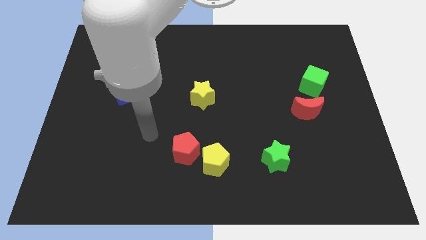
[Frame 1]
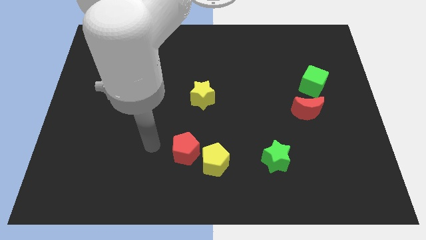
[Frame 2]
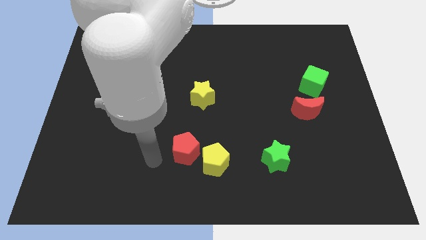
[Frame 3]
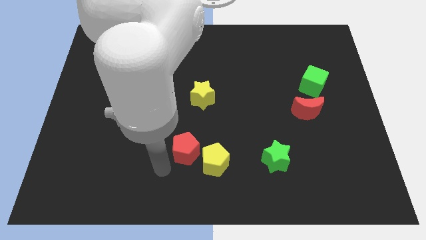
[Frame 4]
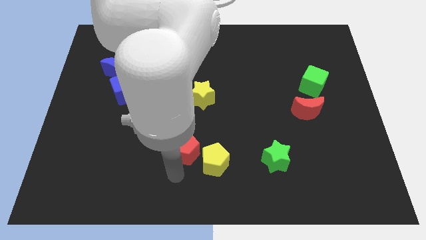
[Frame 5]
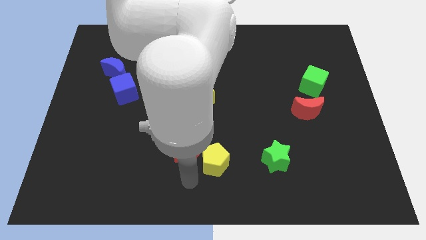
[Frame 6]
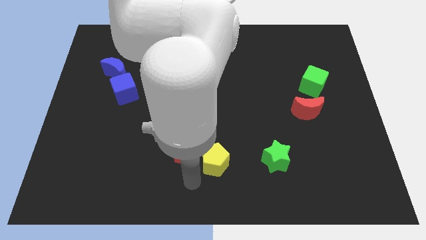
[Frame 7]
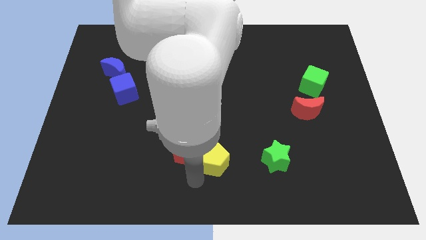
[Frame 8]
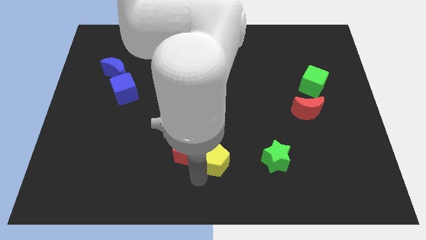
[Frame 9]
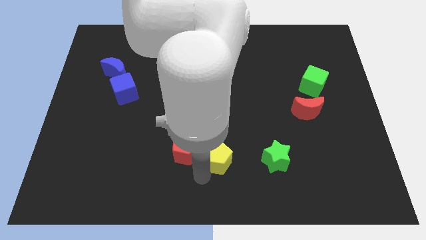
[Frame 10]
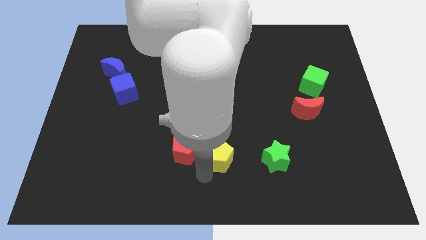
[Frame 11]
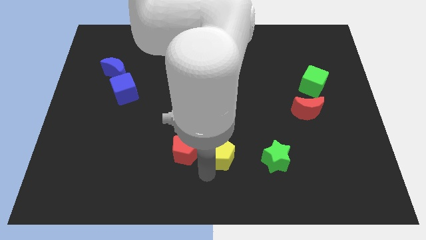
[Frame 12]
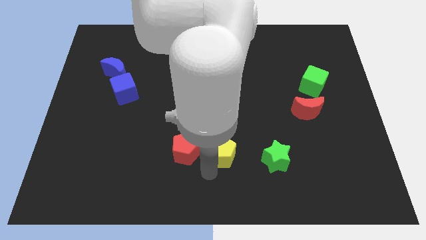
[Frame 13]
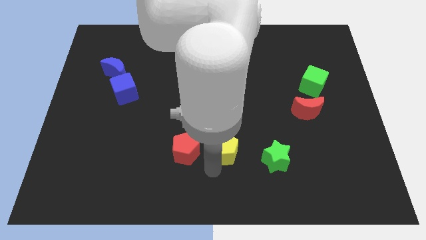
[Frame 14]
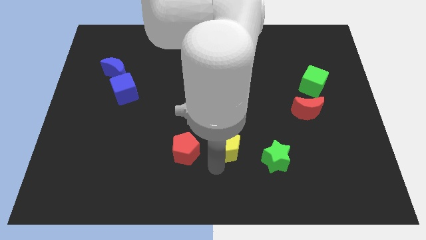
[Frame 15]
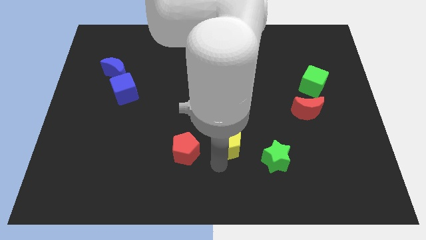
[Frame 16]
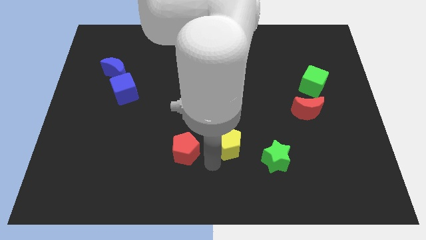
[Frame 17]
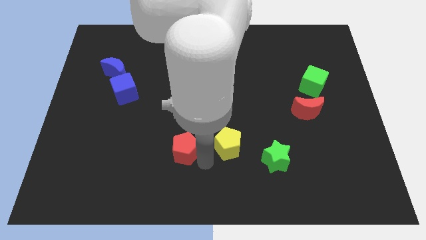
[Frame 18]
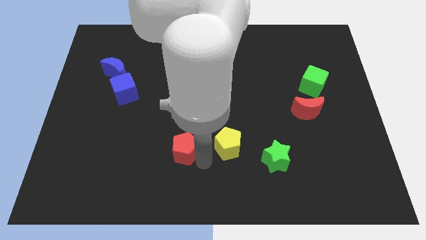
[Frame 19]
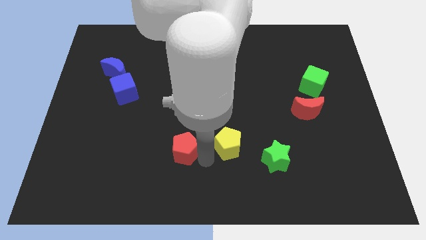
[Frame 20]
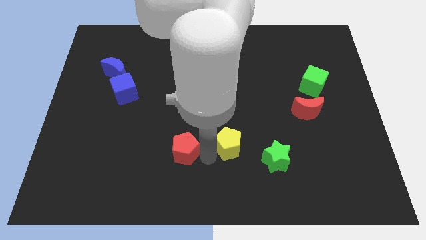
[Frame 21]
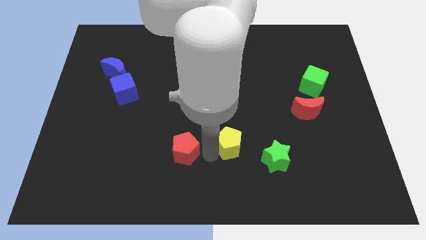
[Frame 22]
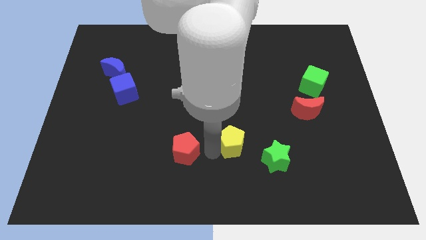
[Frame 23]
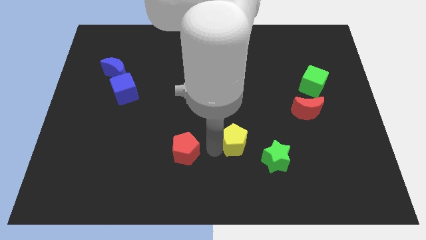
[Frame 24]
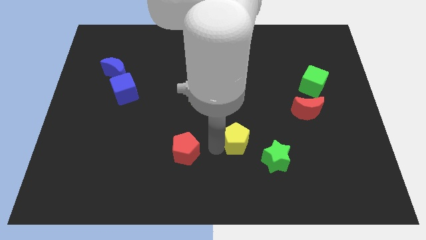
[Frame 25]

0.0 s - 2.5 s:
slightly push the yellow pentagon up and to the right diagonally

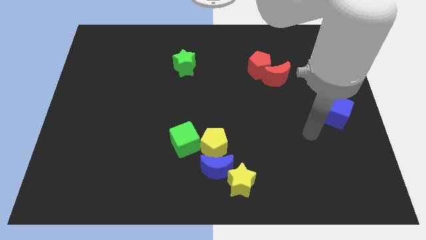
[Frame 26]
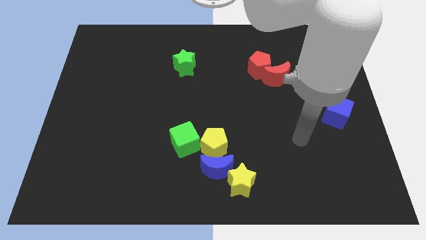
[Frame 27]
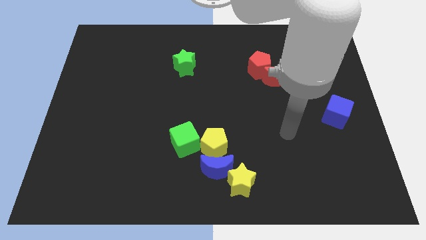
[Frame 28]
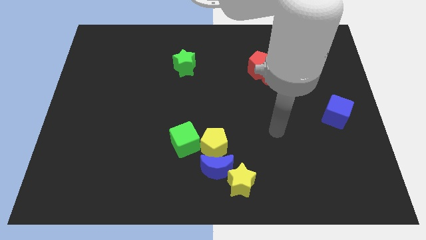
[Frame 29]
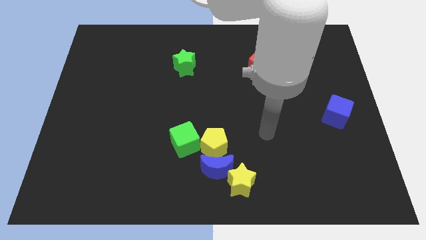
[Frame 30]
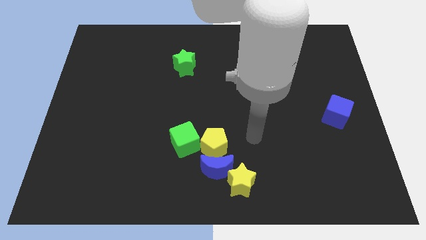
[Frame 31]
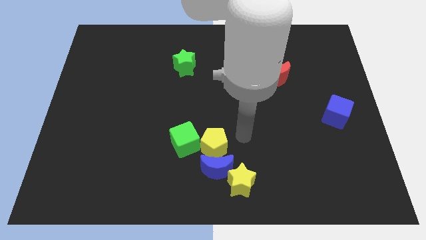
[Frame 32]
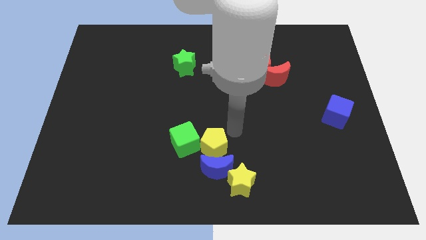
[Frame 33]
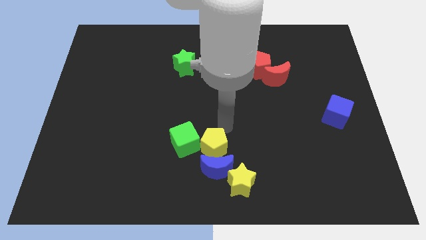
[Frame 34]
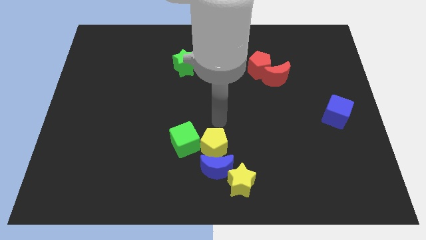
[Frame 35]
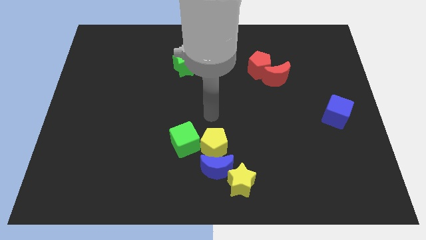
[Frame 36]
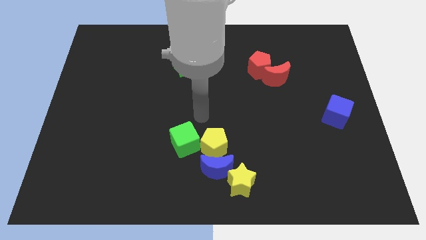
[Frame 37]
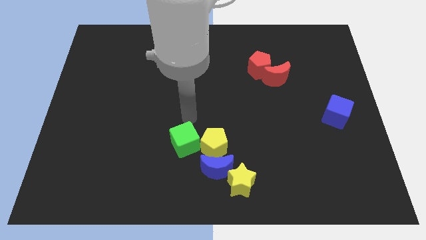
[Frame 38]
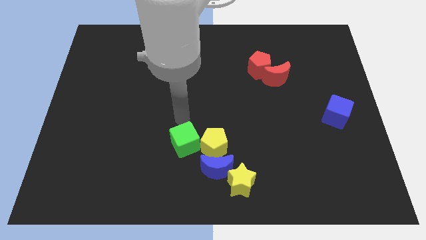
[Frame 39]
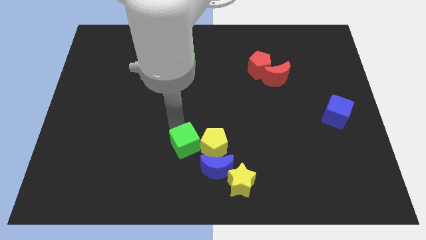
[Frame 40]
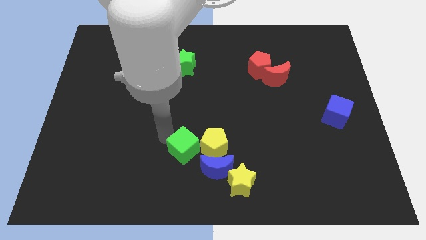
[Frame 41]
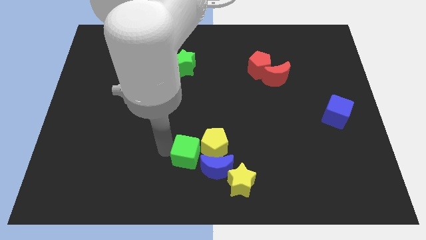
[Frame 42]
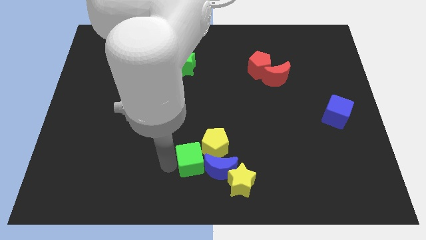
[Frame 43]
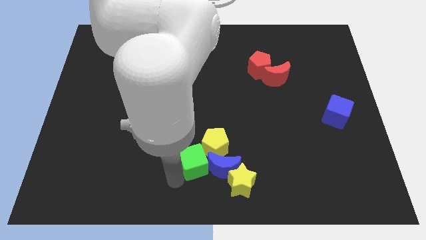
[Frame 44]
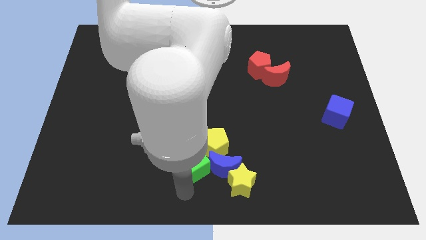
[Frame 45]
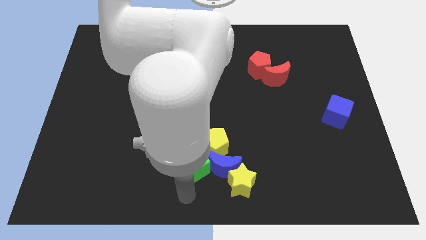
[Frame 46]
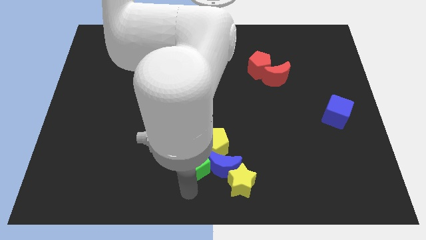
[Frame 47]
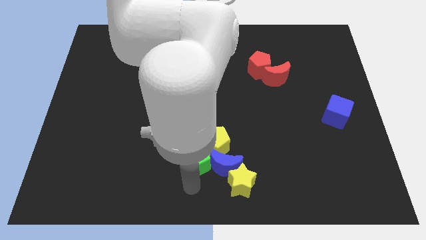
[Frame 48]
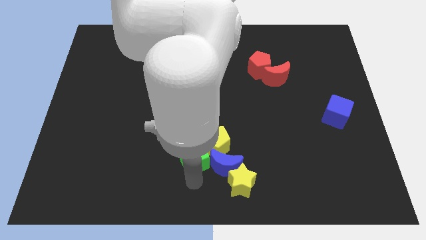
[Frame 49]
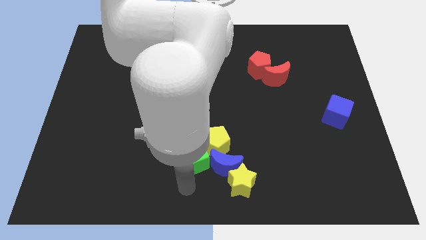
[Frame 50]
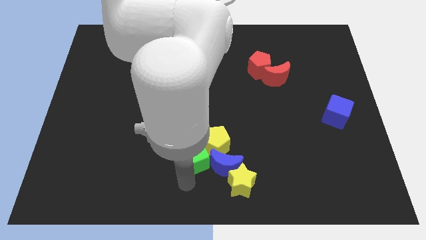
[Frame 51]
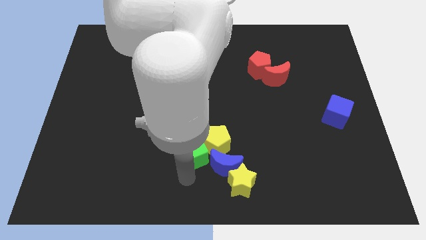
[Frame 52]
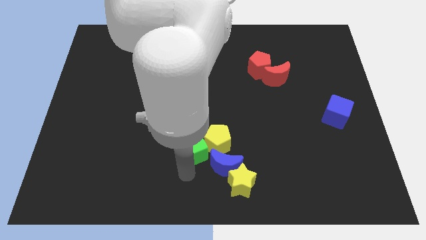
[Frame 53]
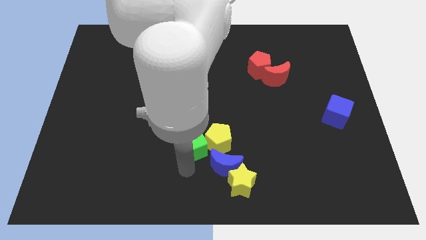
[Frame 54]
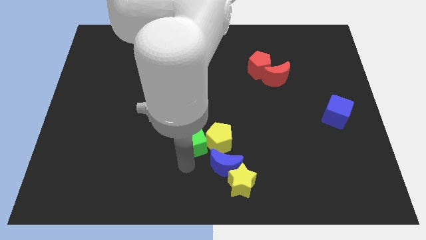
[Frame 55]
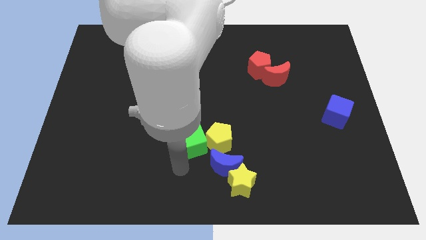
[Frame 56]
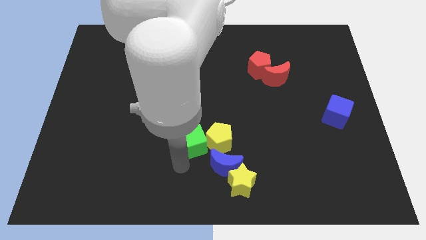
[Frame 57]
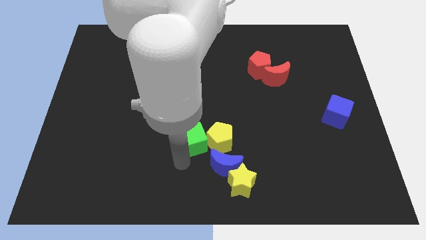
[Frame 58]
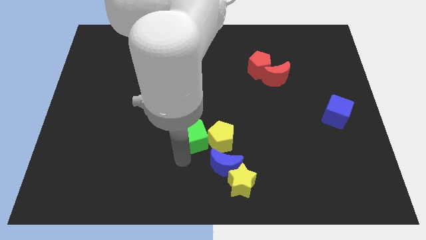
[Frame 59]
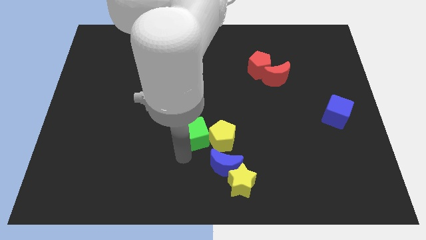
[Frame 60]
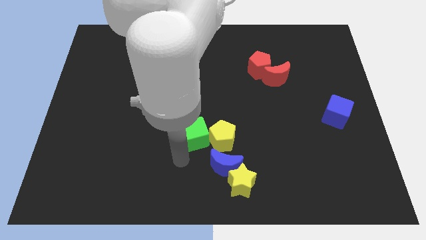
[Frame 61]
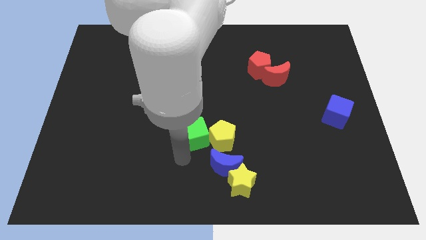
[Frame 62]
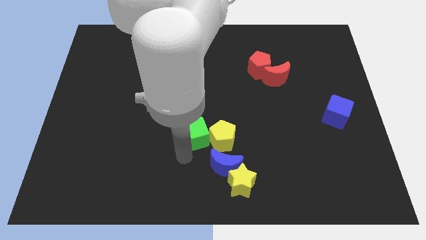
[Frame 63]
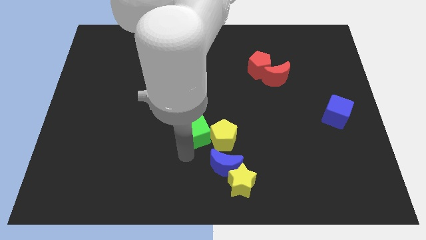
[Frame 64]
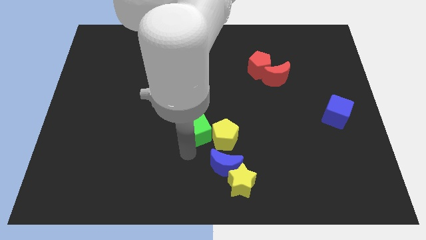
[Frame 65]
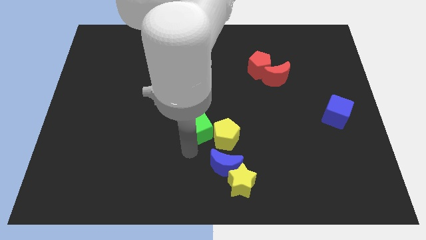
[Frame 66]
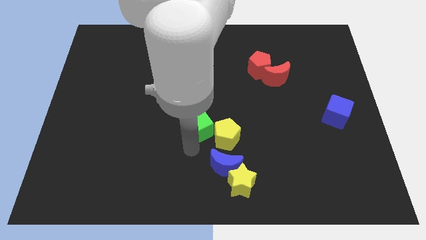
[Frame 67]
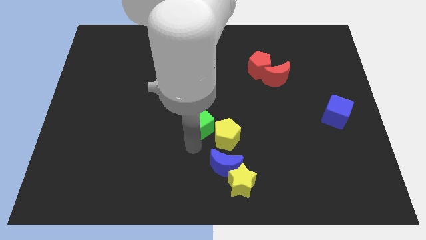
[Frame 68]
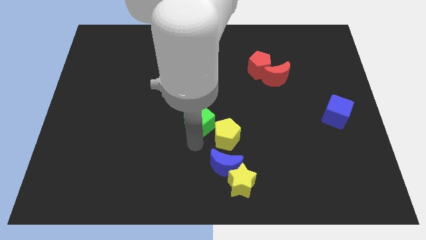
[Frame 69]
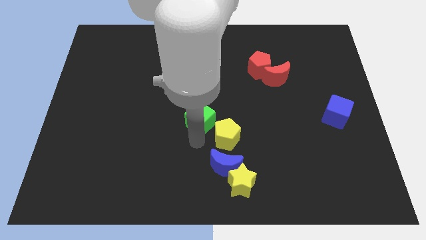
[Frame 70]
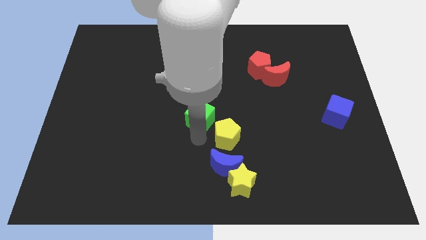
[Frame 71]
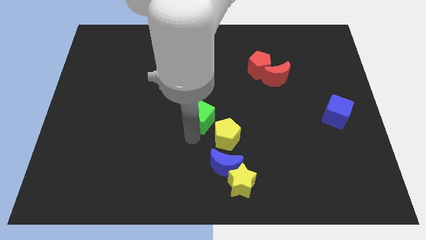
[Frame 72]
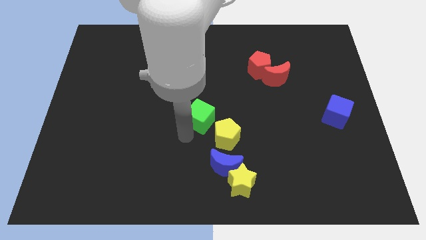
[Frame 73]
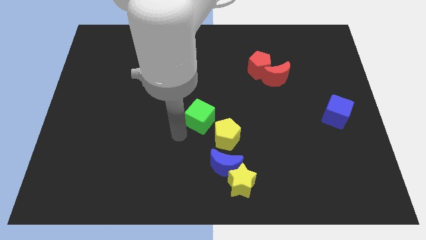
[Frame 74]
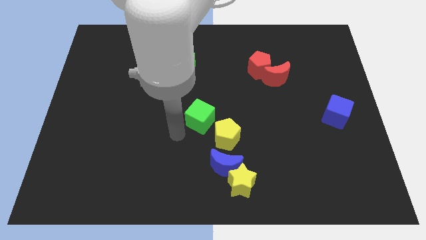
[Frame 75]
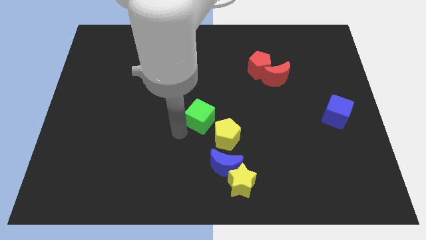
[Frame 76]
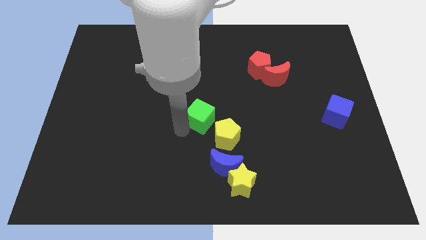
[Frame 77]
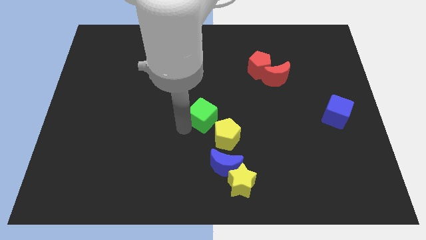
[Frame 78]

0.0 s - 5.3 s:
push the green cube a little upwards and right
